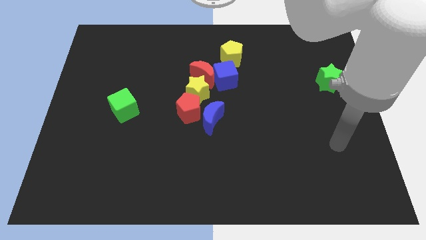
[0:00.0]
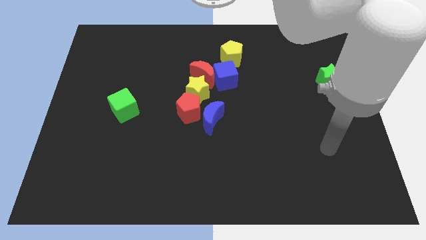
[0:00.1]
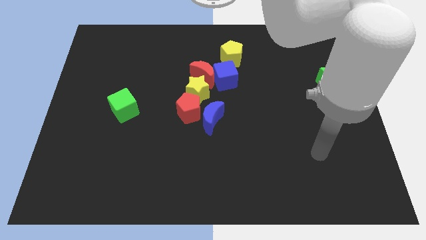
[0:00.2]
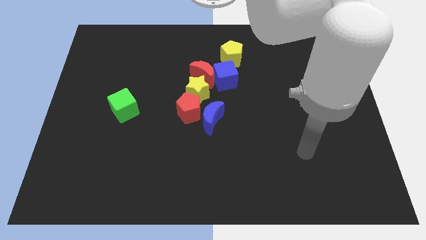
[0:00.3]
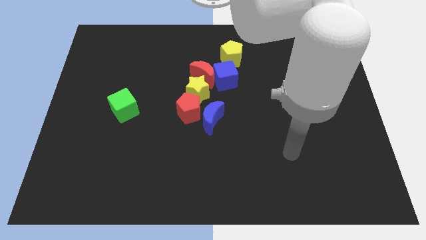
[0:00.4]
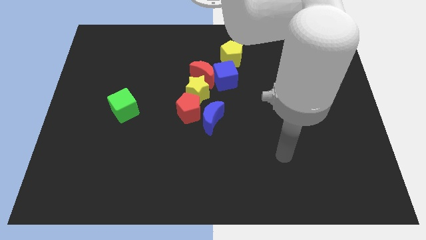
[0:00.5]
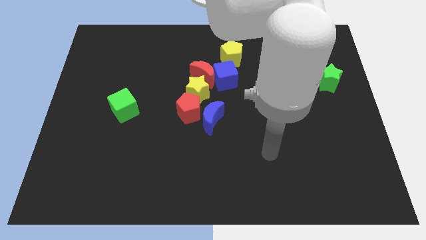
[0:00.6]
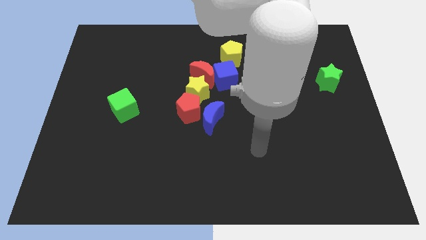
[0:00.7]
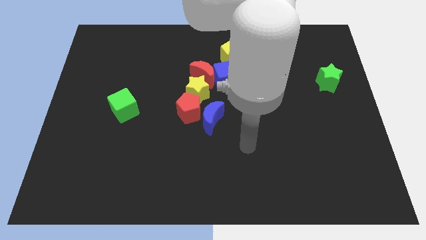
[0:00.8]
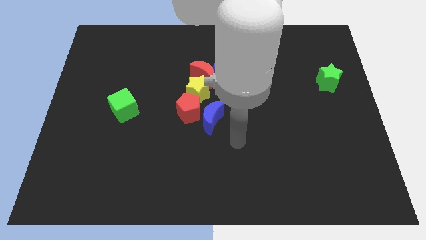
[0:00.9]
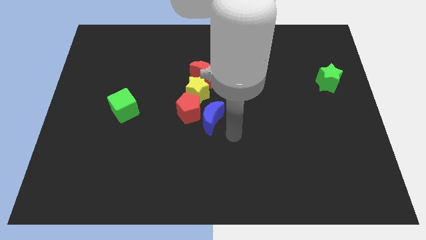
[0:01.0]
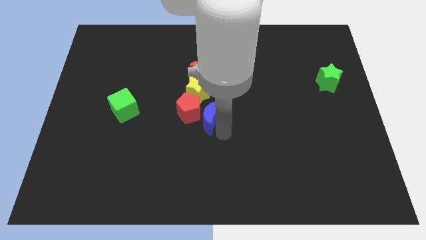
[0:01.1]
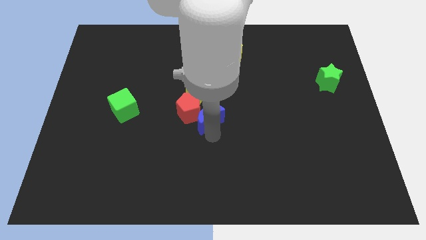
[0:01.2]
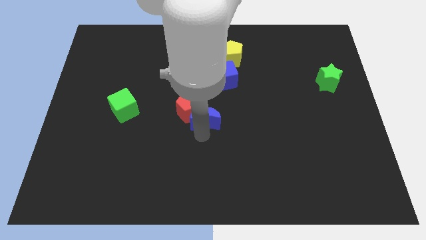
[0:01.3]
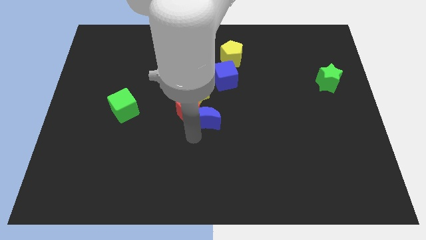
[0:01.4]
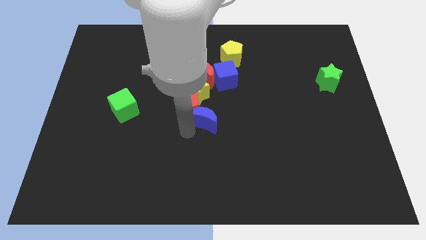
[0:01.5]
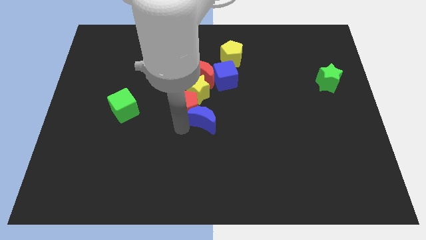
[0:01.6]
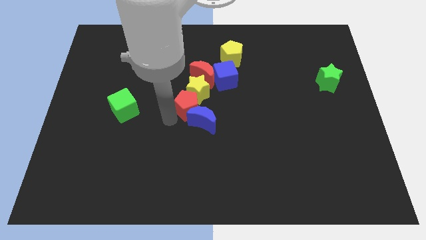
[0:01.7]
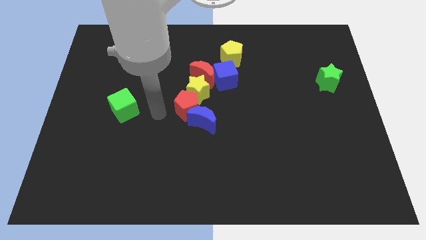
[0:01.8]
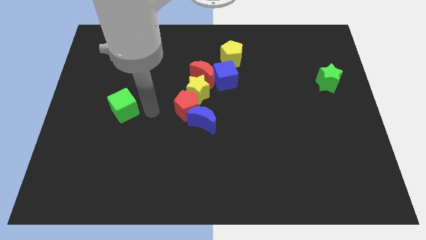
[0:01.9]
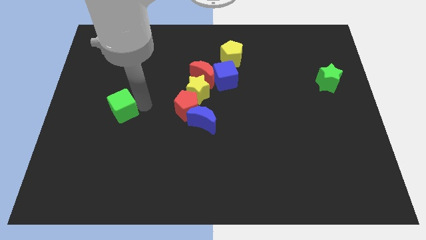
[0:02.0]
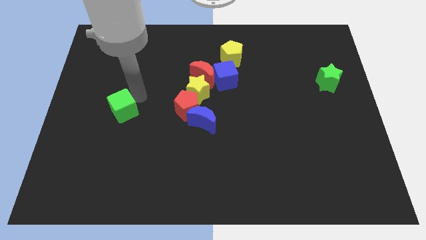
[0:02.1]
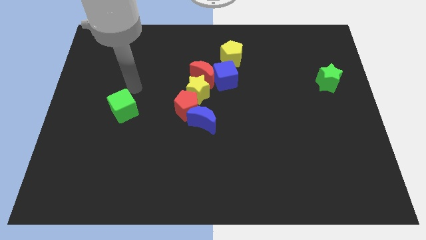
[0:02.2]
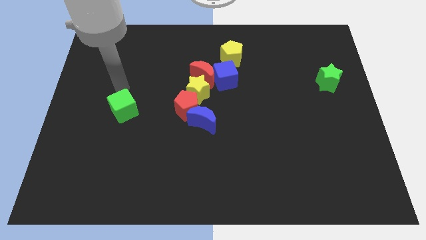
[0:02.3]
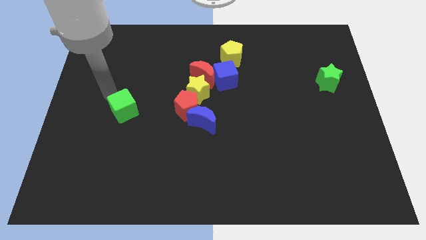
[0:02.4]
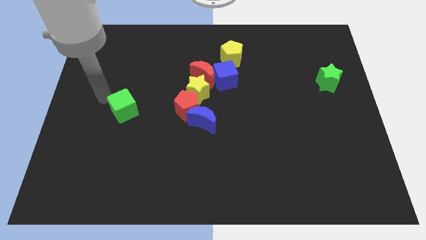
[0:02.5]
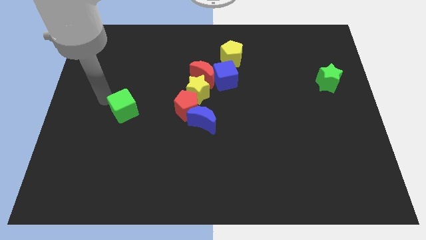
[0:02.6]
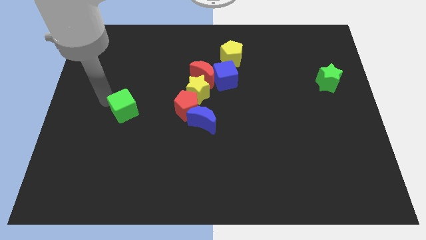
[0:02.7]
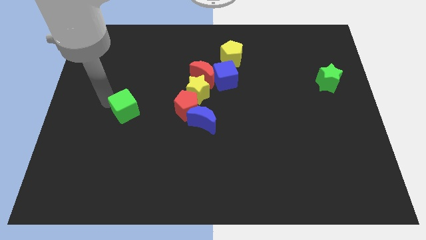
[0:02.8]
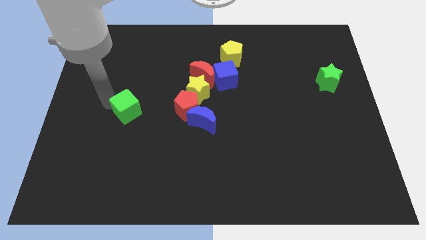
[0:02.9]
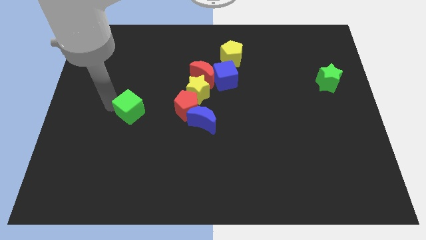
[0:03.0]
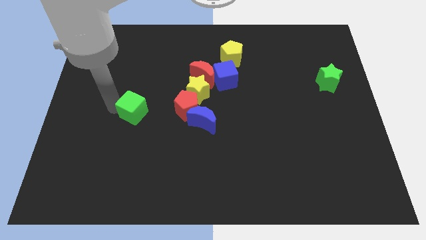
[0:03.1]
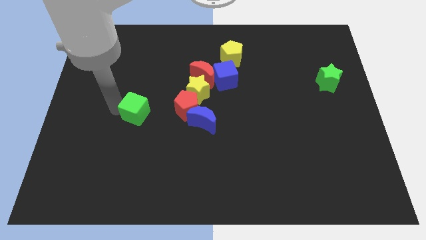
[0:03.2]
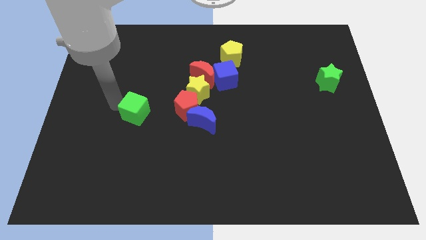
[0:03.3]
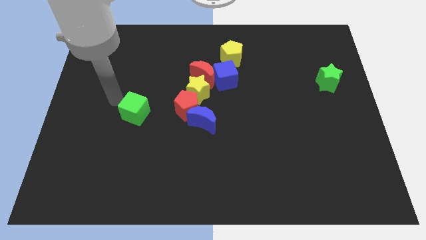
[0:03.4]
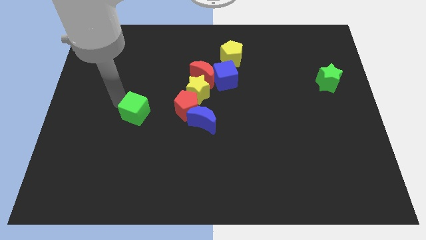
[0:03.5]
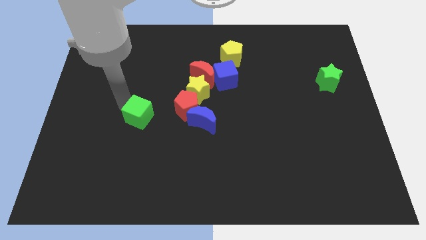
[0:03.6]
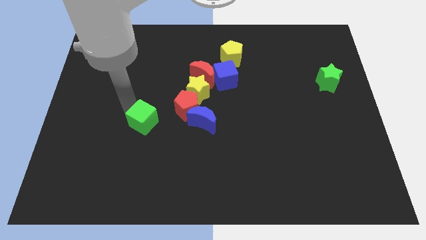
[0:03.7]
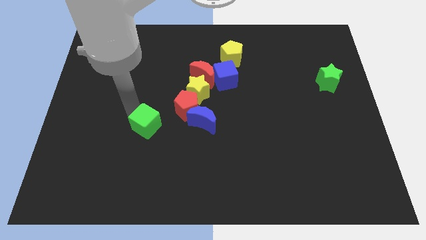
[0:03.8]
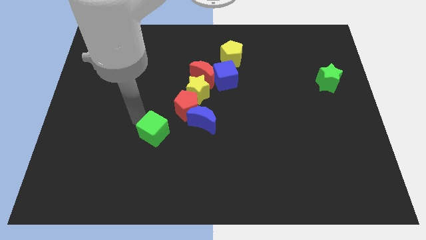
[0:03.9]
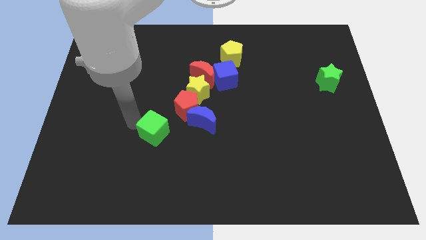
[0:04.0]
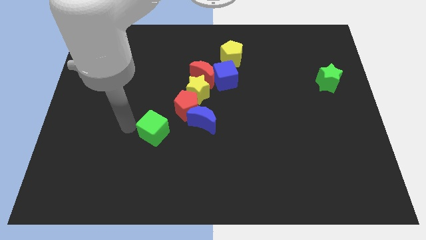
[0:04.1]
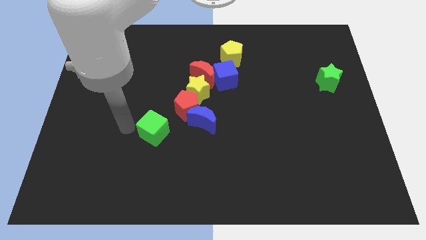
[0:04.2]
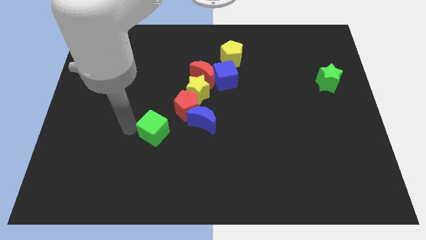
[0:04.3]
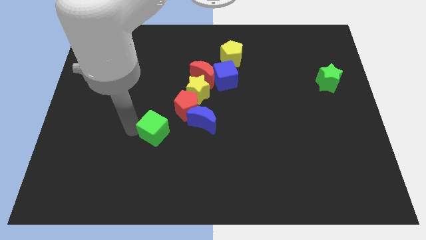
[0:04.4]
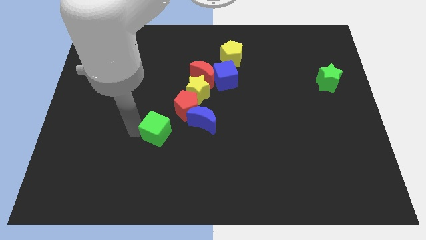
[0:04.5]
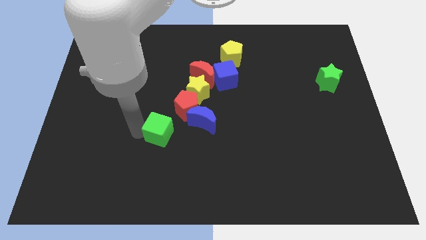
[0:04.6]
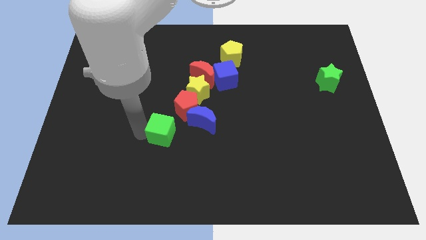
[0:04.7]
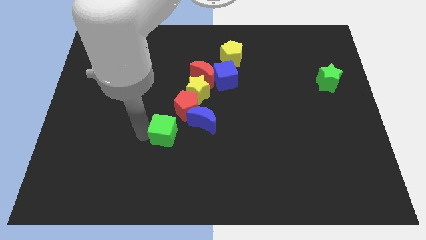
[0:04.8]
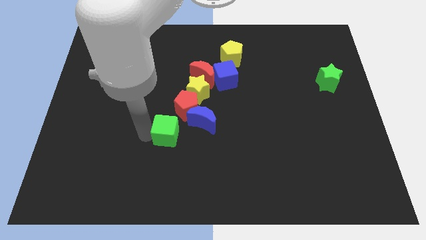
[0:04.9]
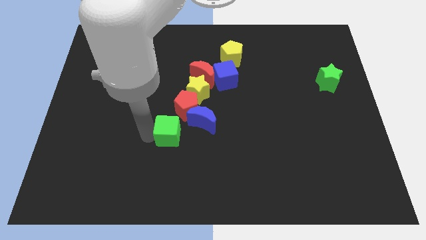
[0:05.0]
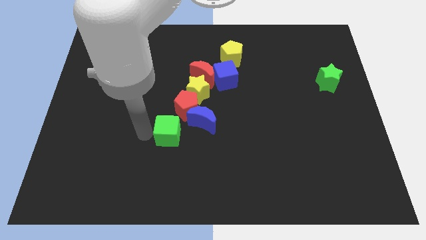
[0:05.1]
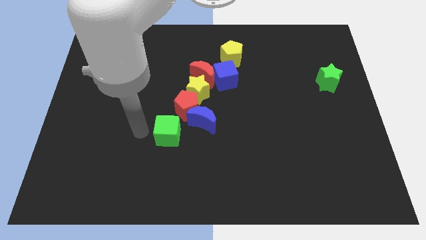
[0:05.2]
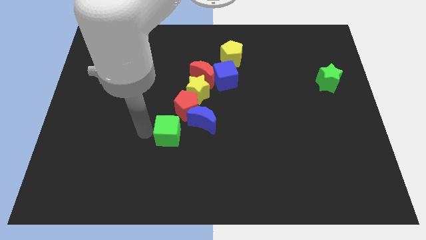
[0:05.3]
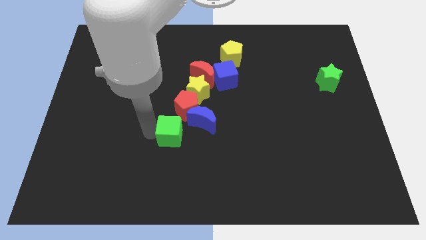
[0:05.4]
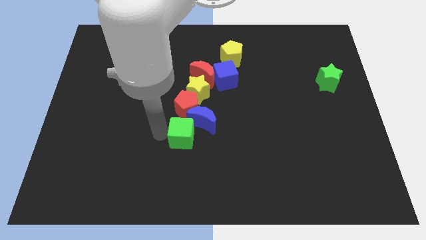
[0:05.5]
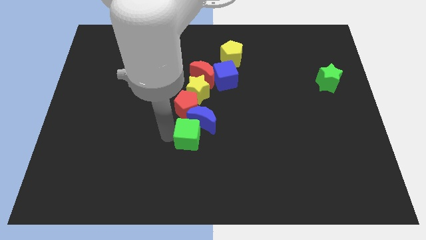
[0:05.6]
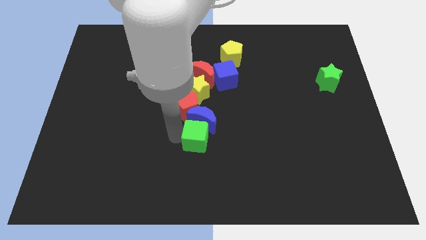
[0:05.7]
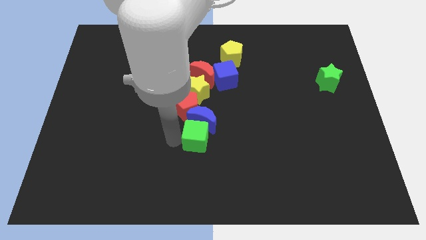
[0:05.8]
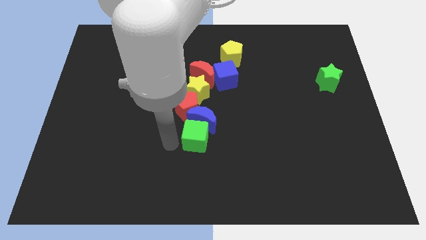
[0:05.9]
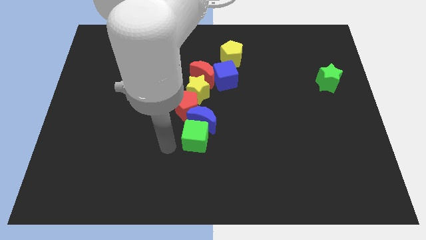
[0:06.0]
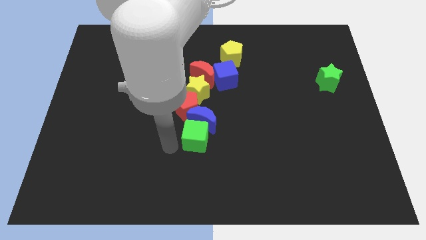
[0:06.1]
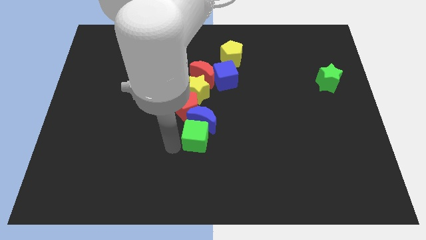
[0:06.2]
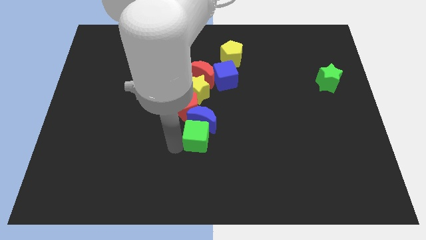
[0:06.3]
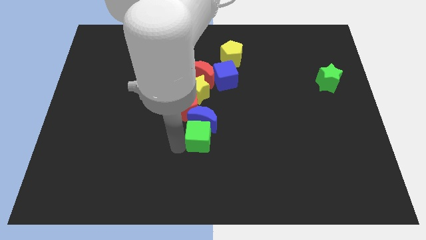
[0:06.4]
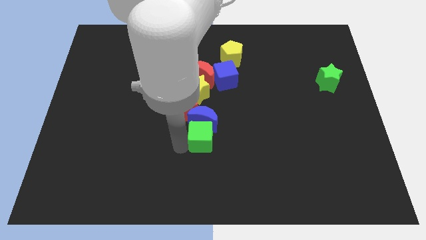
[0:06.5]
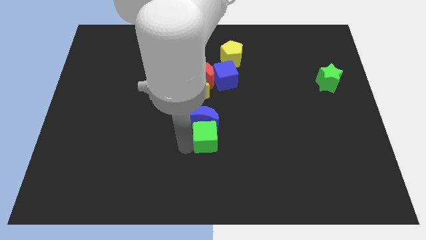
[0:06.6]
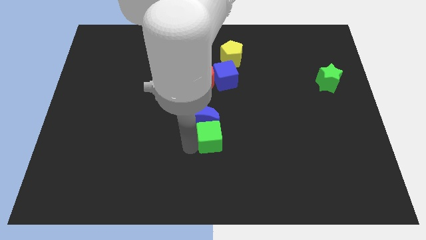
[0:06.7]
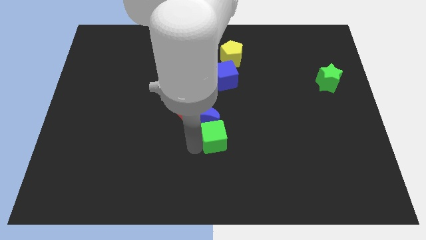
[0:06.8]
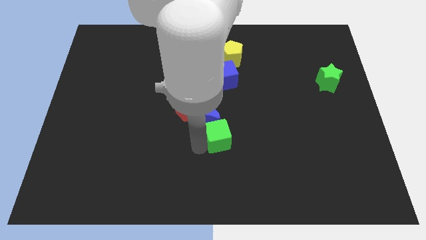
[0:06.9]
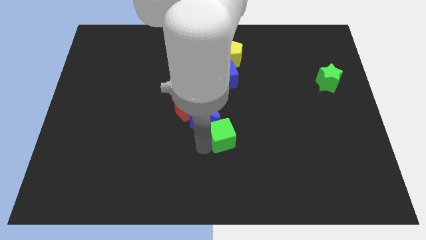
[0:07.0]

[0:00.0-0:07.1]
move the green cube to the right

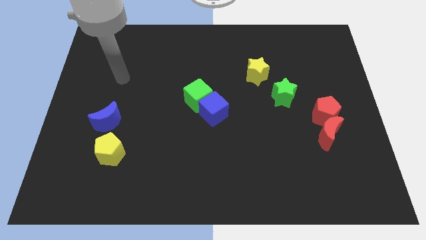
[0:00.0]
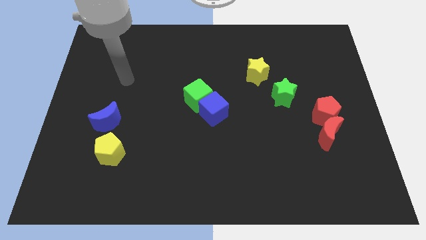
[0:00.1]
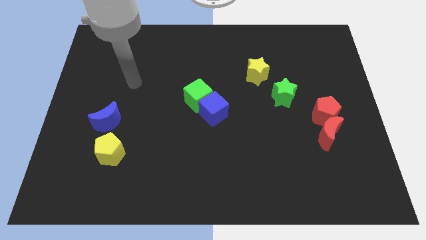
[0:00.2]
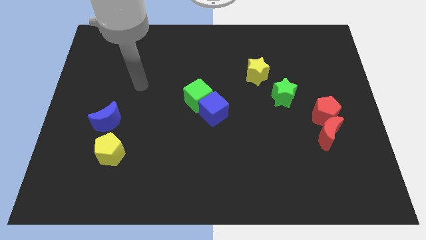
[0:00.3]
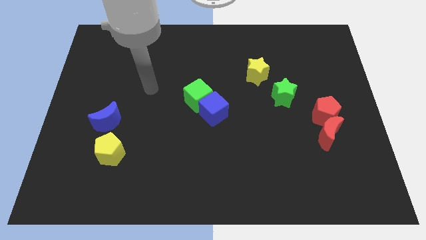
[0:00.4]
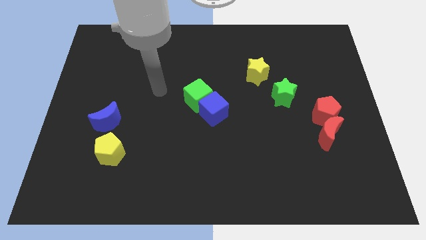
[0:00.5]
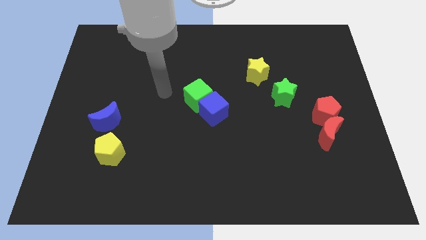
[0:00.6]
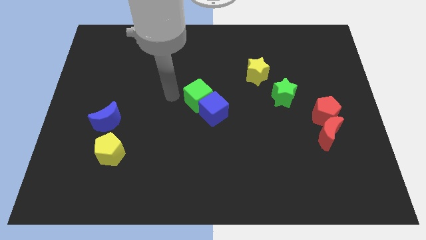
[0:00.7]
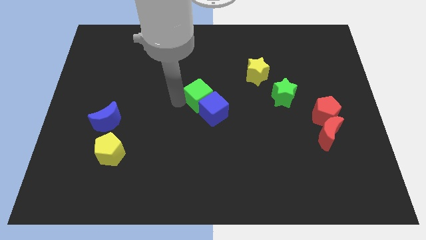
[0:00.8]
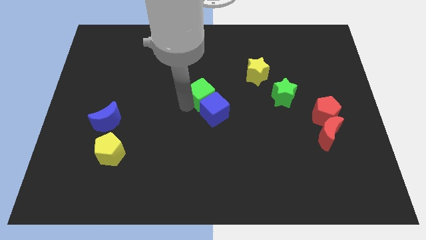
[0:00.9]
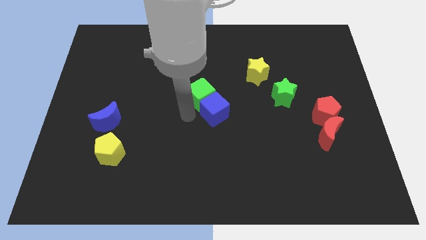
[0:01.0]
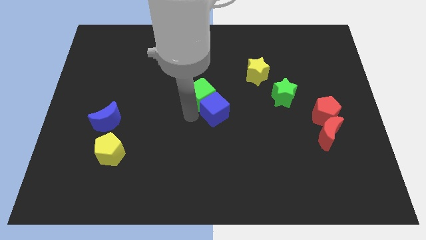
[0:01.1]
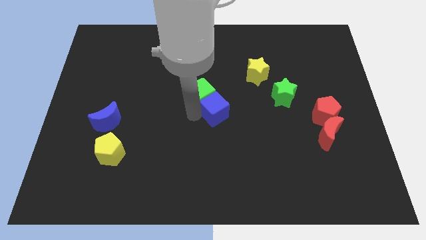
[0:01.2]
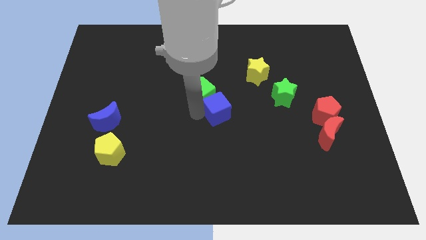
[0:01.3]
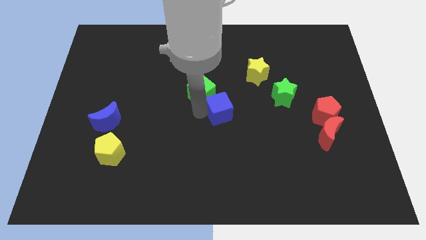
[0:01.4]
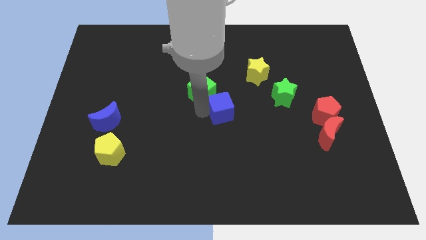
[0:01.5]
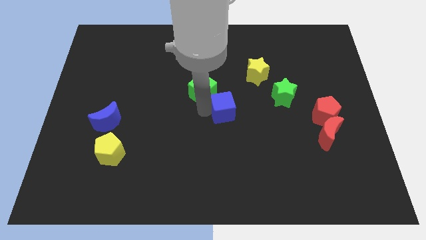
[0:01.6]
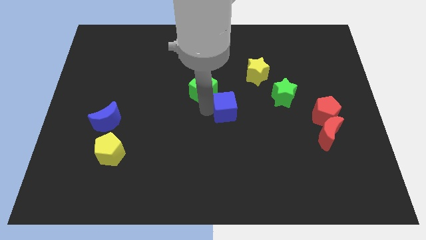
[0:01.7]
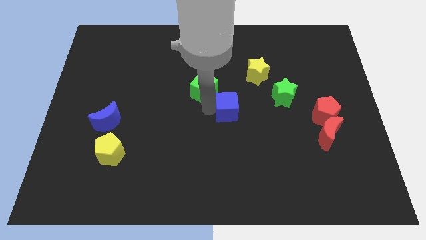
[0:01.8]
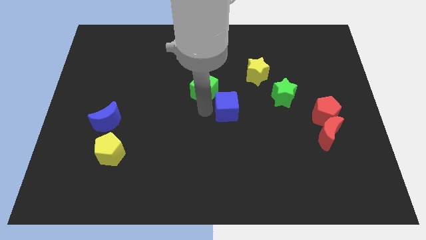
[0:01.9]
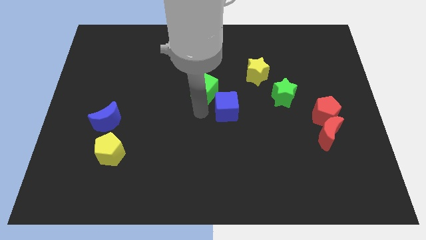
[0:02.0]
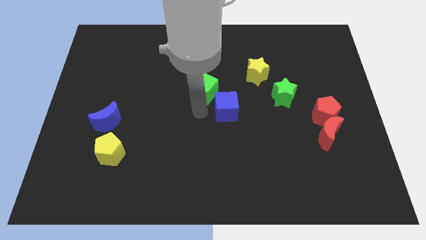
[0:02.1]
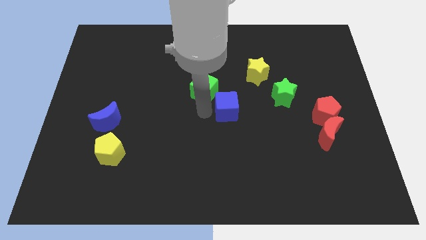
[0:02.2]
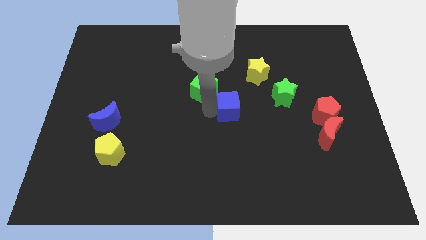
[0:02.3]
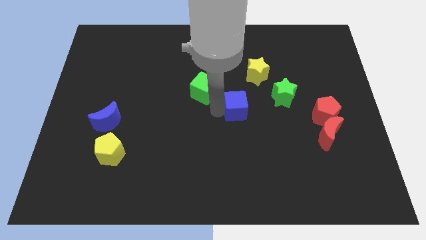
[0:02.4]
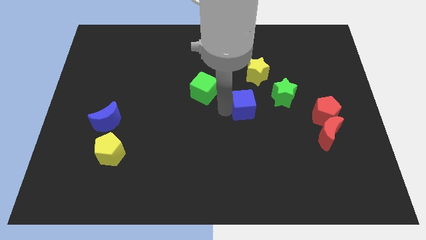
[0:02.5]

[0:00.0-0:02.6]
slide the blue cube a bit to the right
